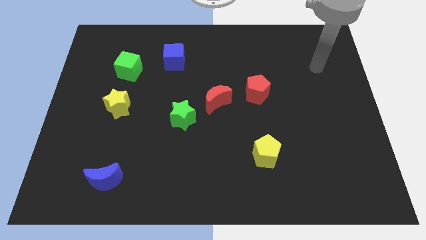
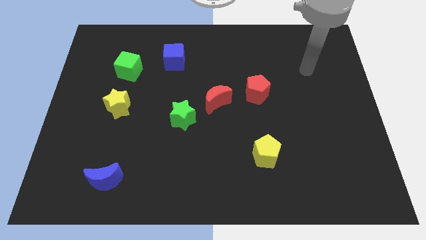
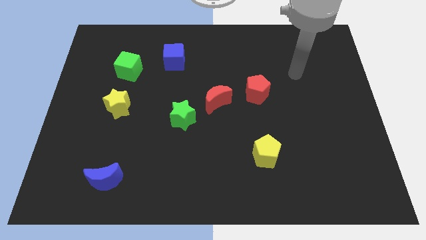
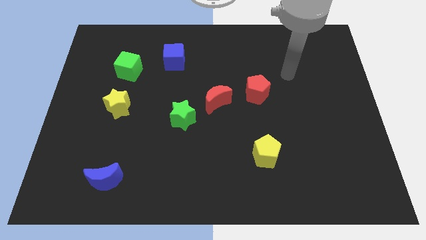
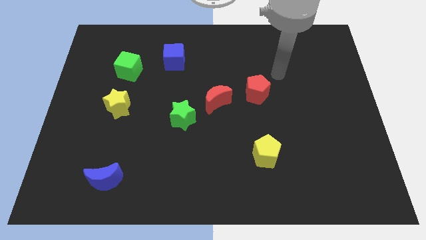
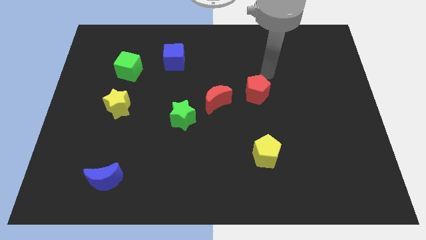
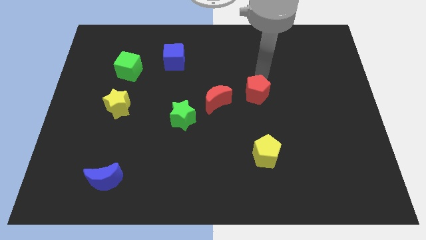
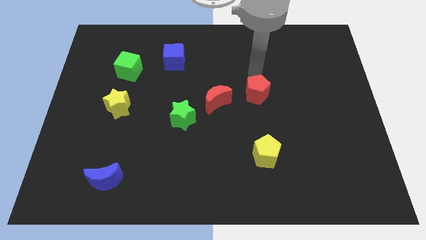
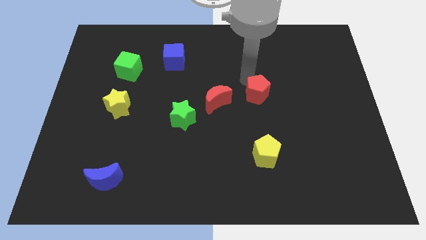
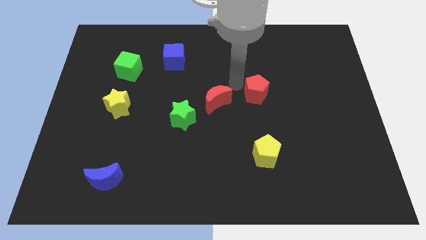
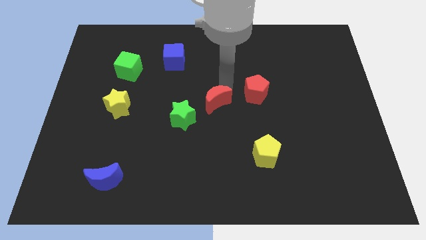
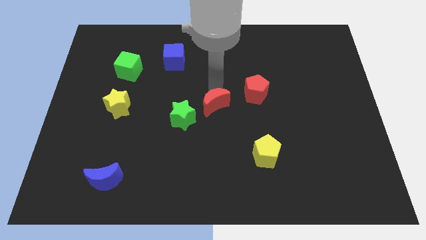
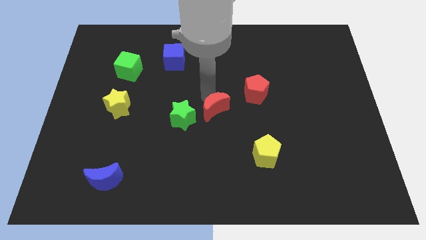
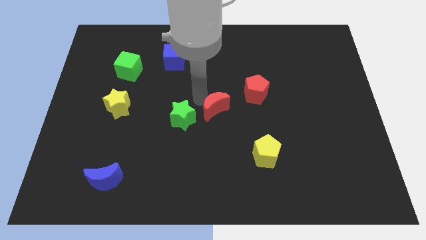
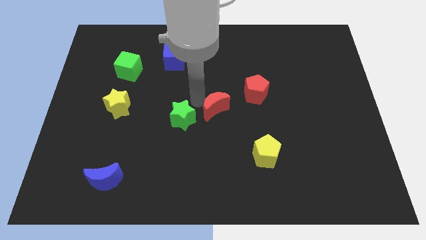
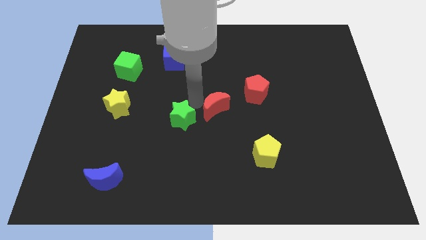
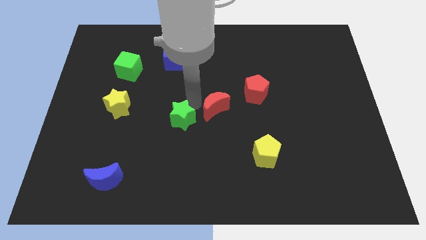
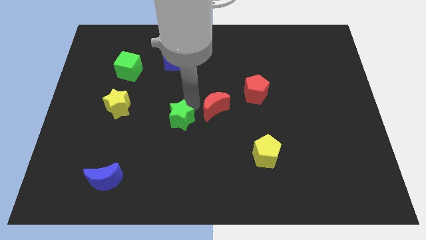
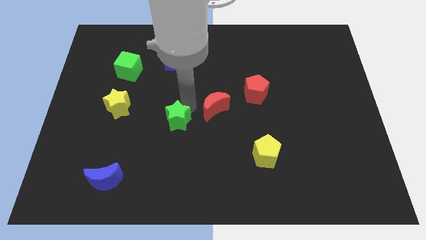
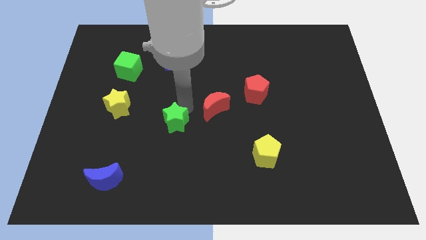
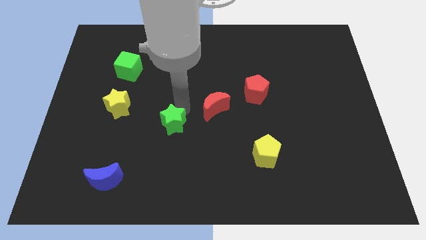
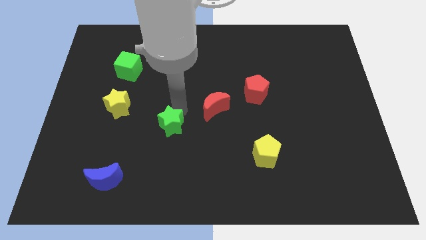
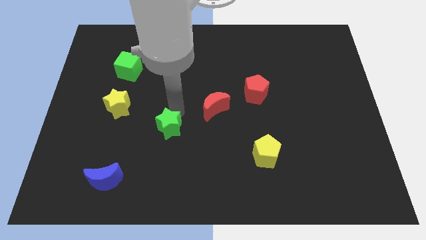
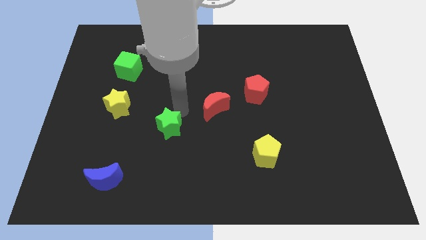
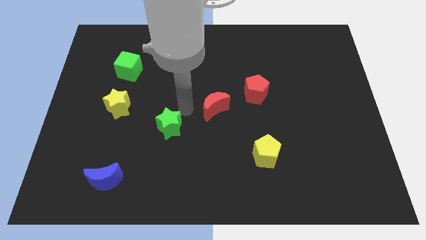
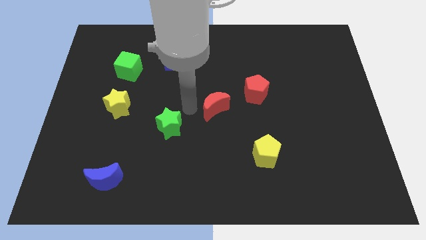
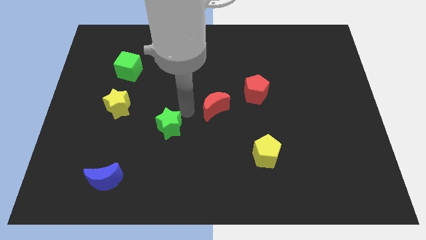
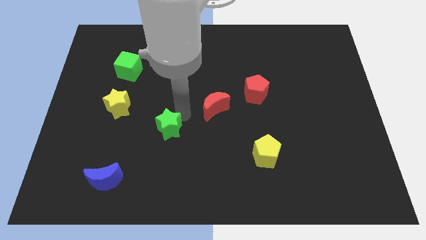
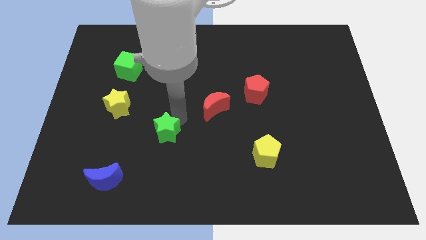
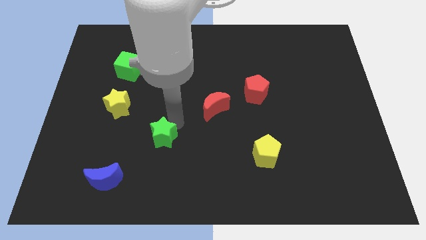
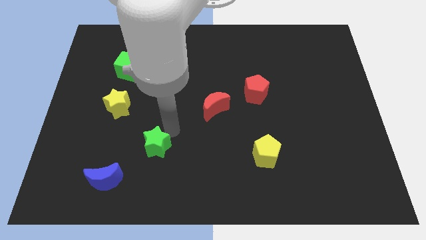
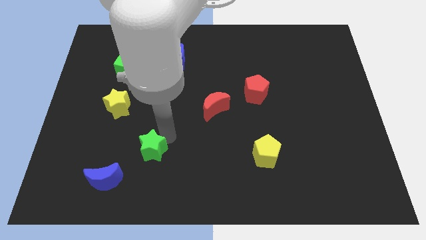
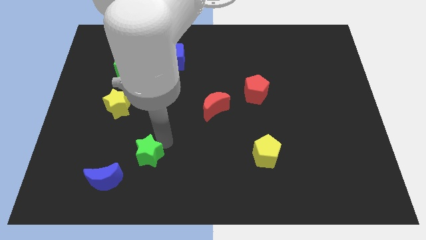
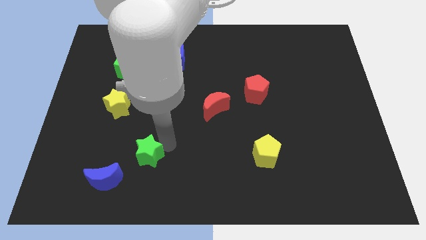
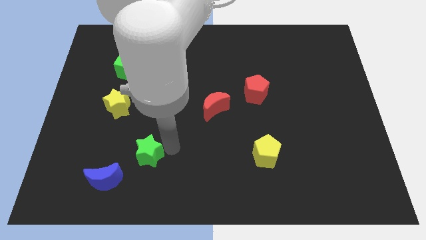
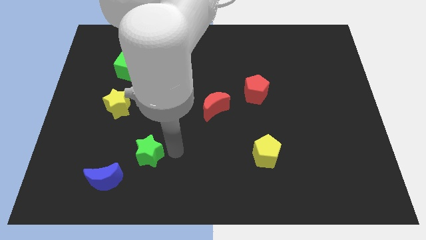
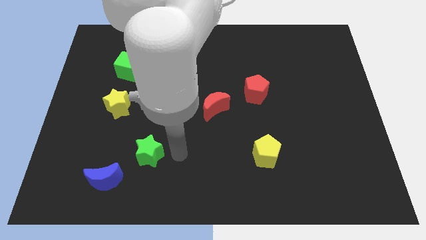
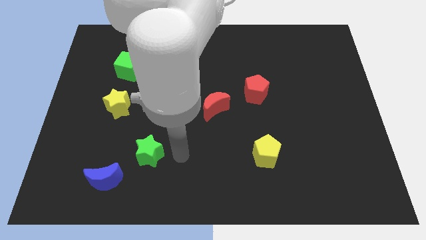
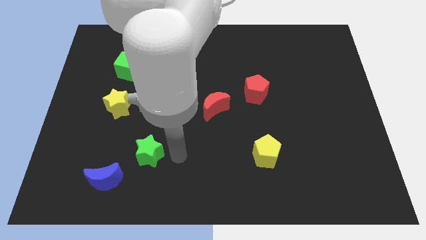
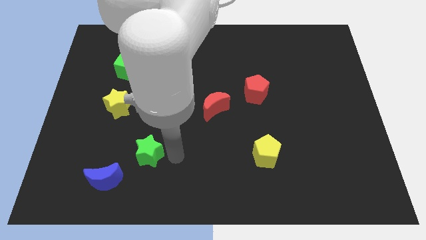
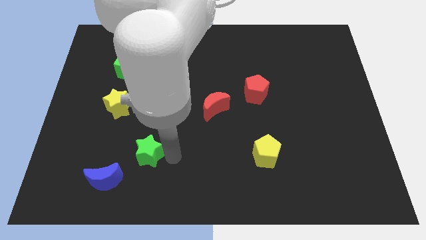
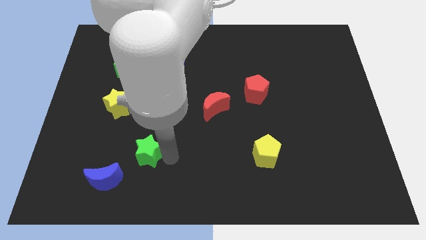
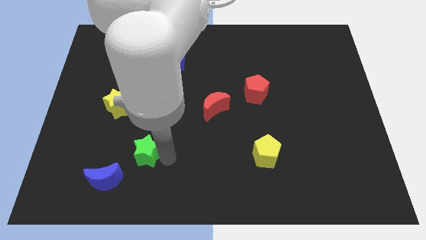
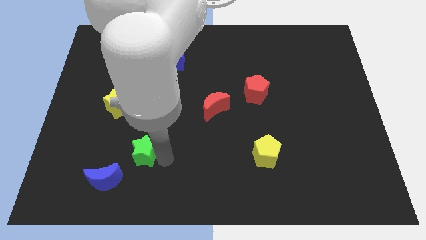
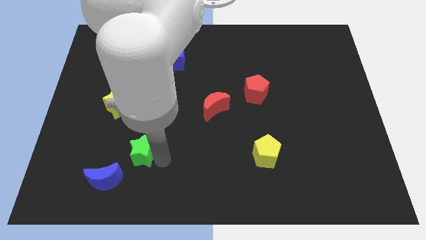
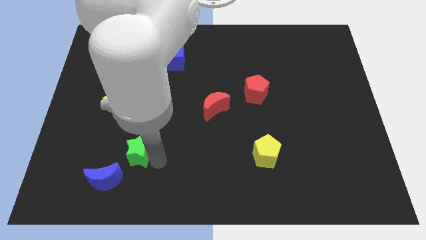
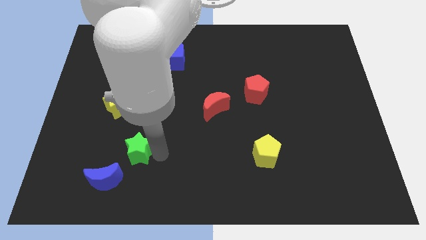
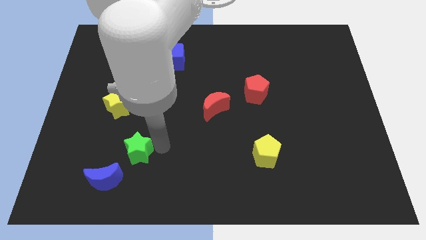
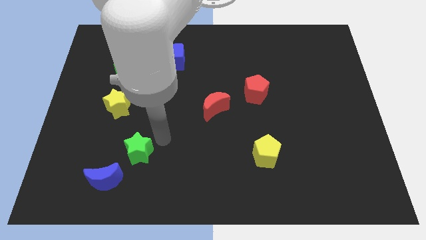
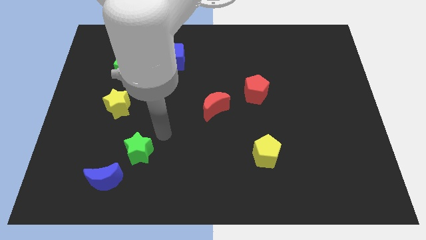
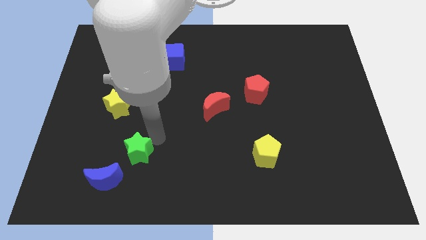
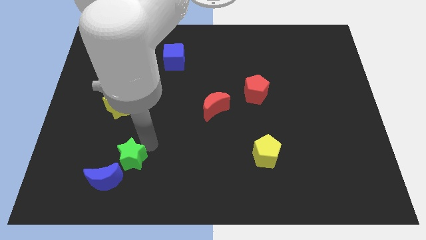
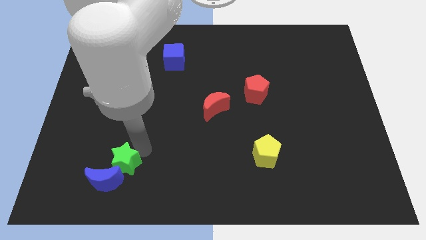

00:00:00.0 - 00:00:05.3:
put the green star towards the blue moon

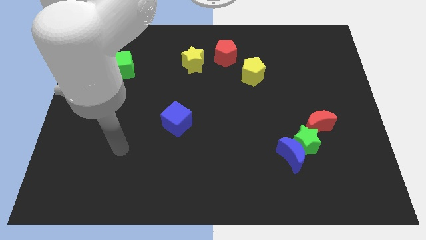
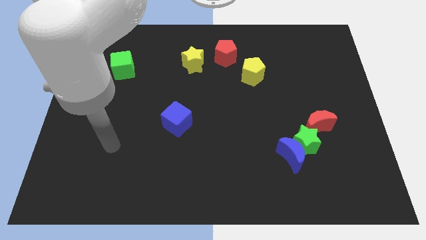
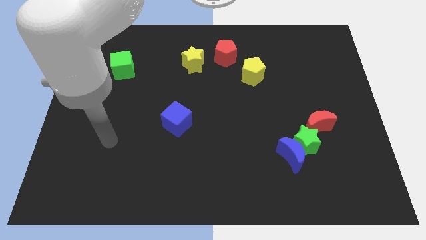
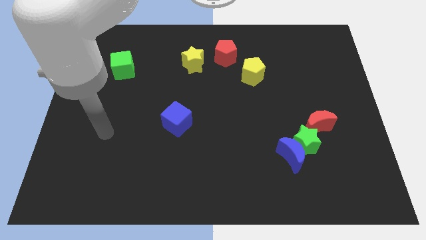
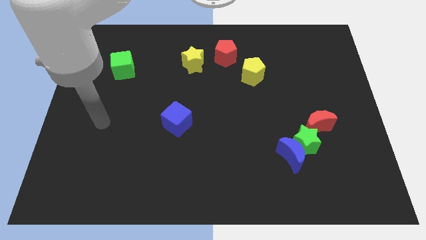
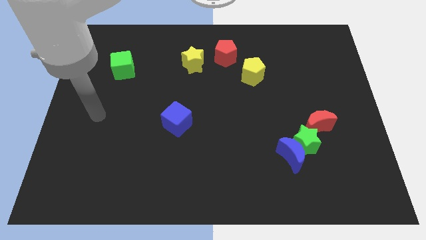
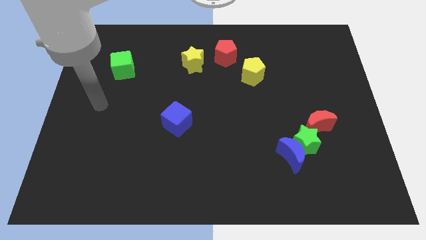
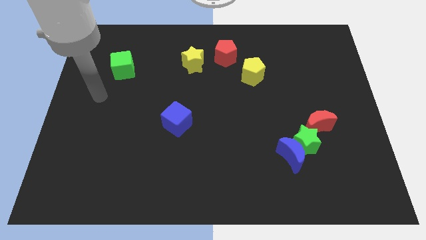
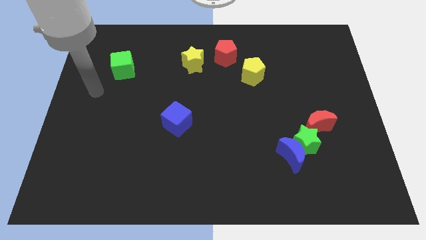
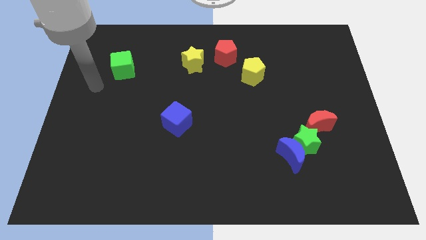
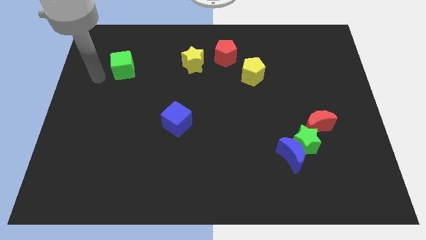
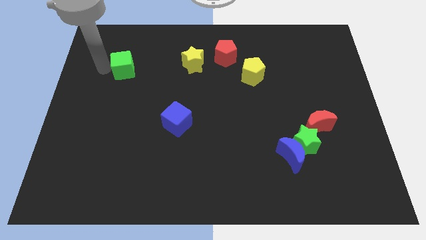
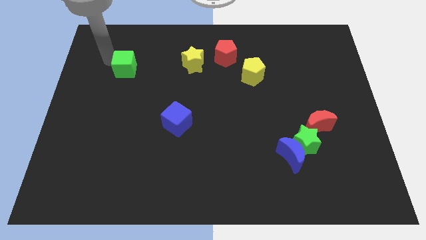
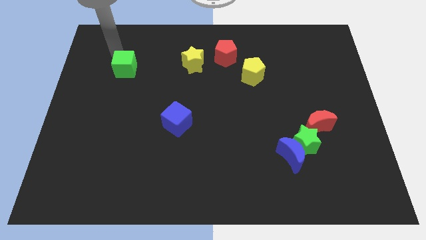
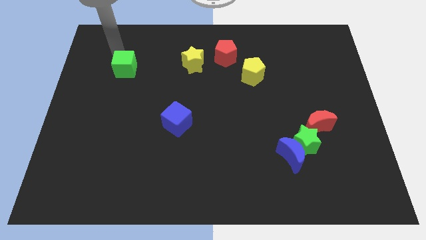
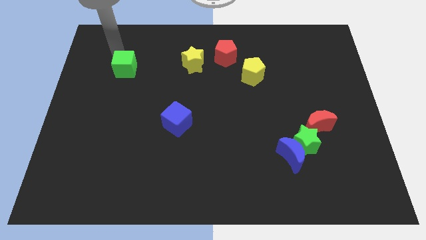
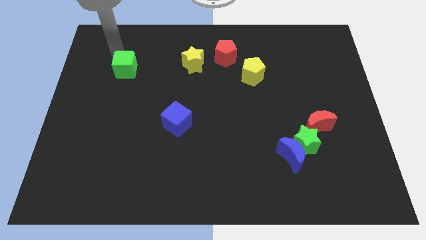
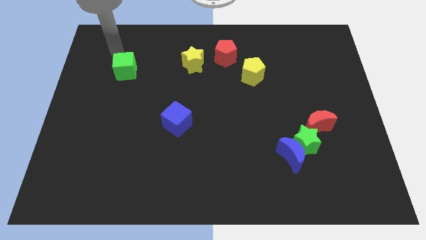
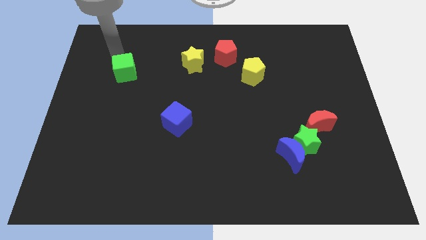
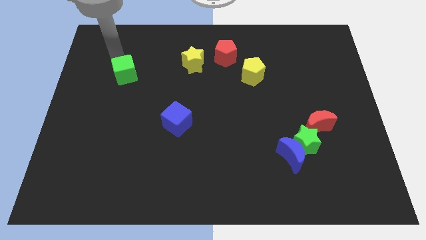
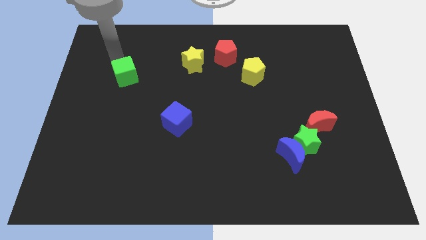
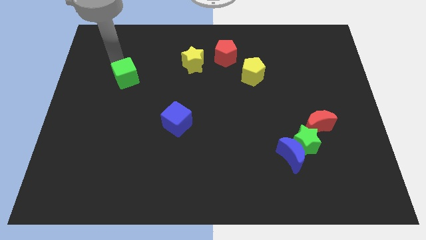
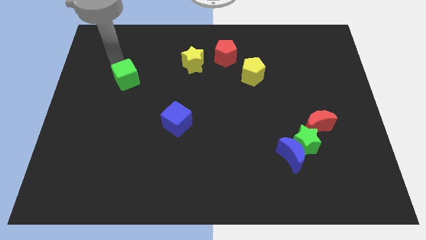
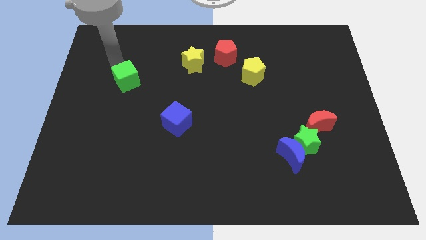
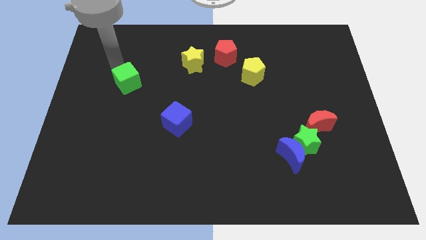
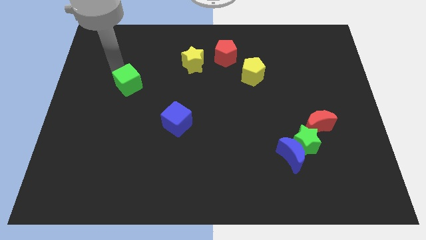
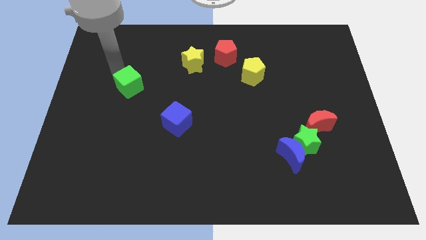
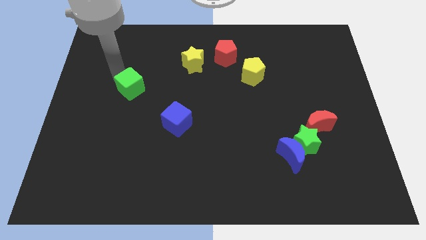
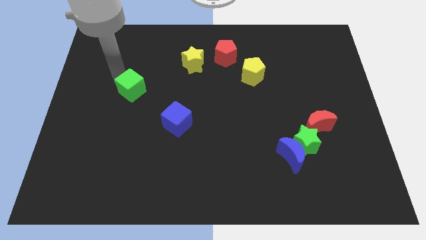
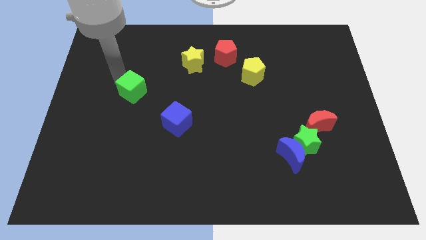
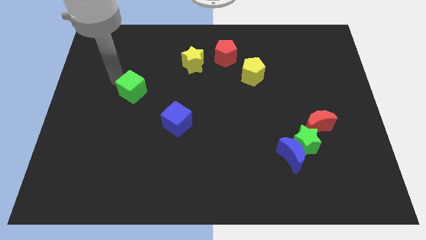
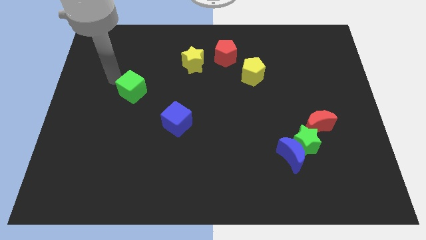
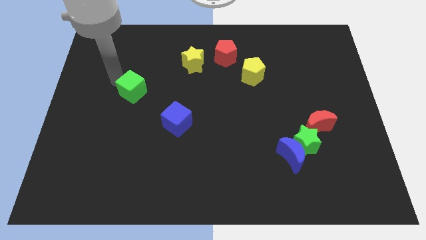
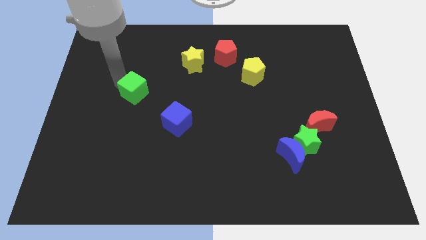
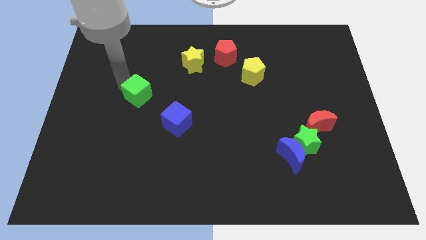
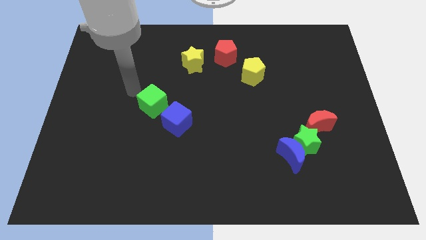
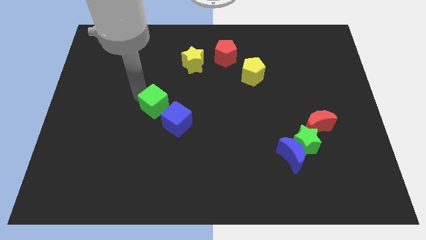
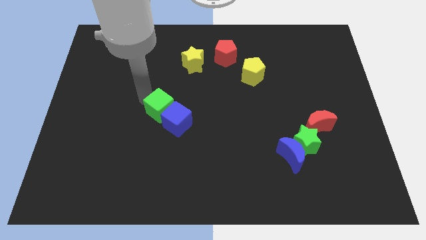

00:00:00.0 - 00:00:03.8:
slide the green cube towards the blue cube
